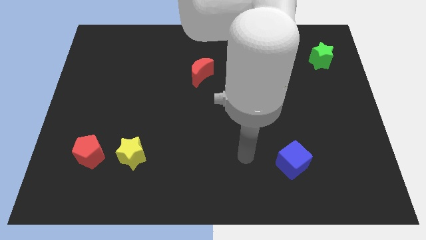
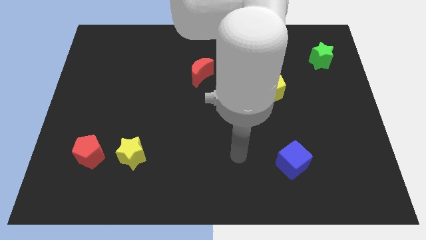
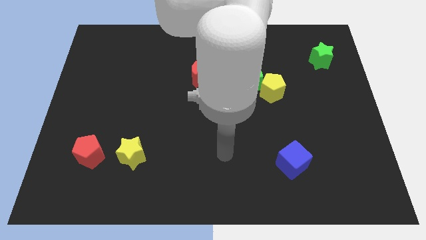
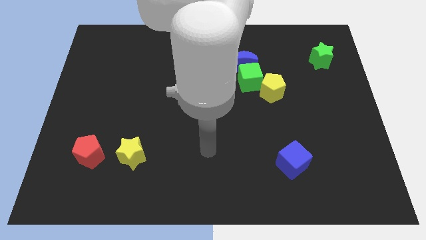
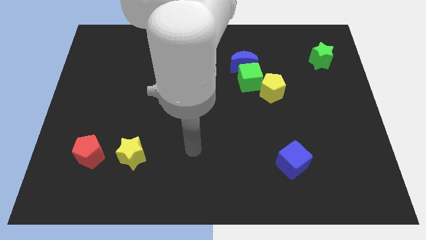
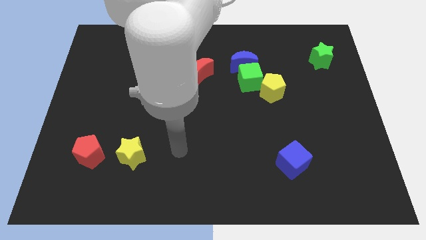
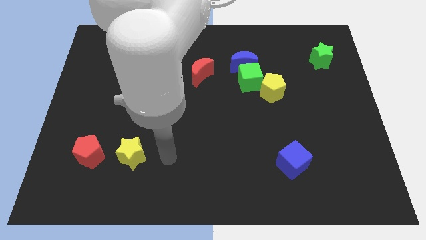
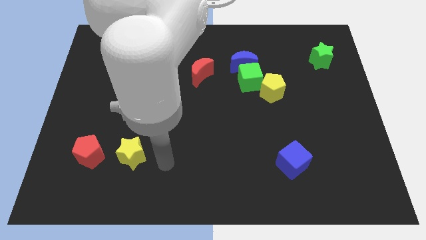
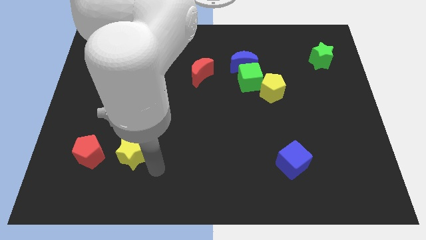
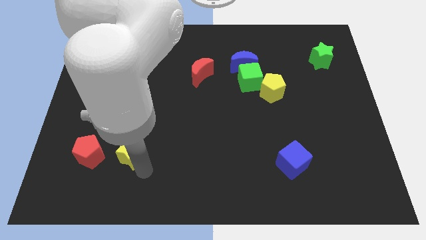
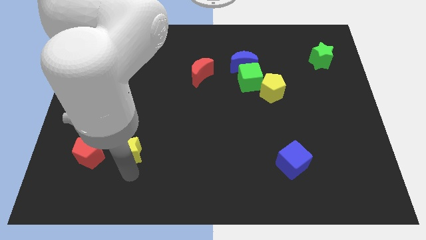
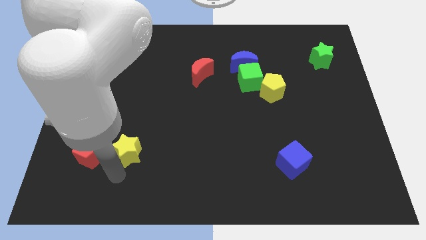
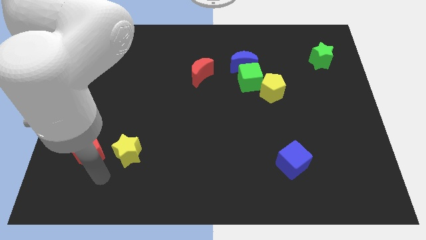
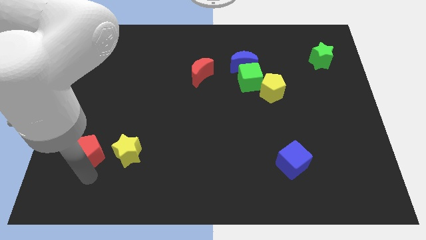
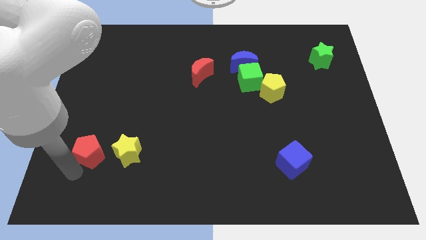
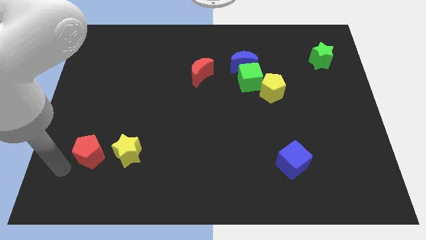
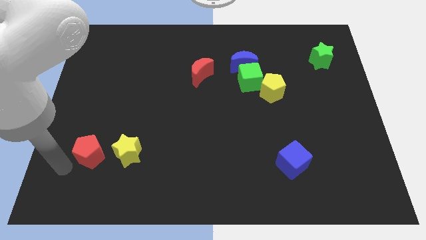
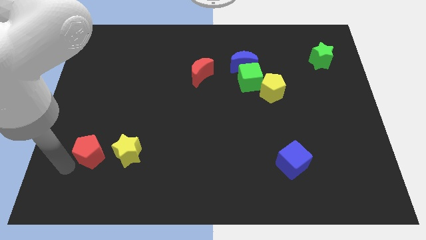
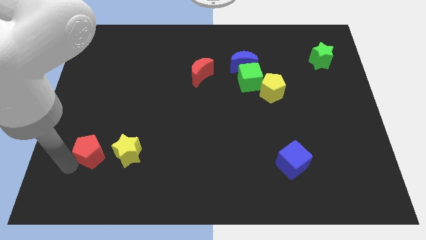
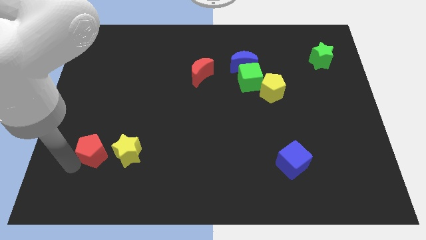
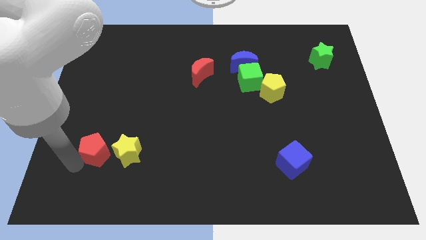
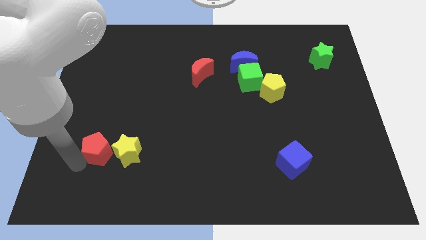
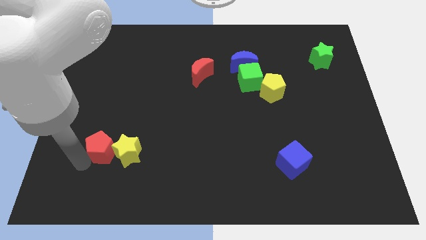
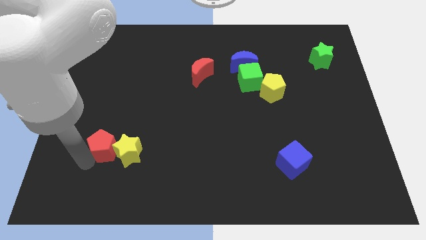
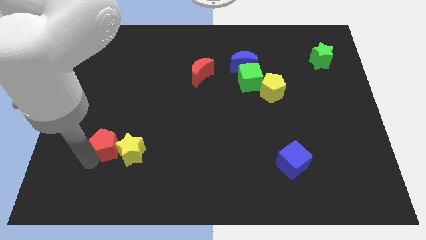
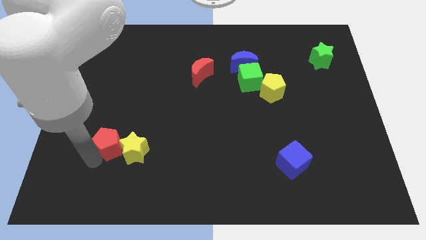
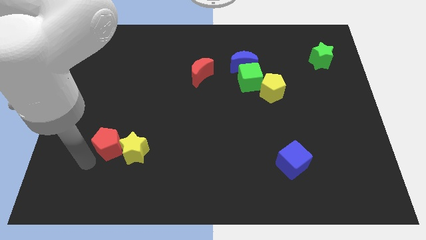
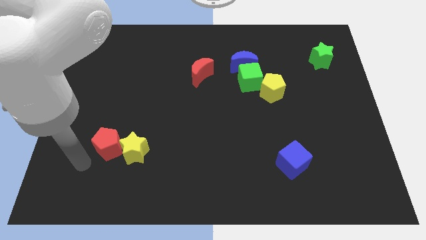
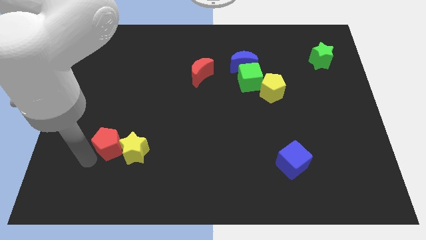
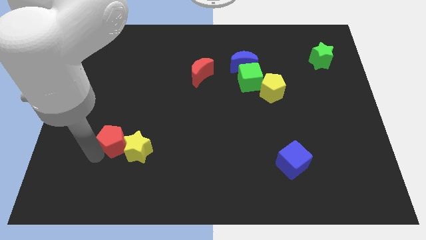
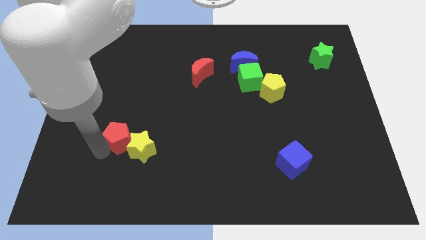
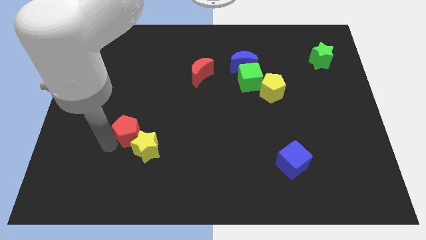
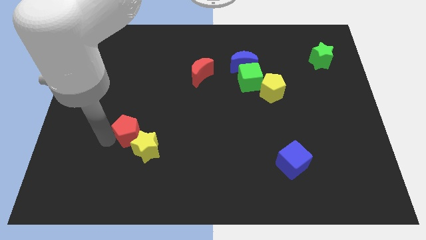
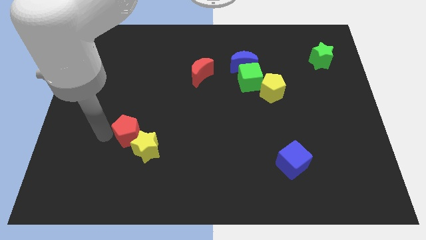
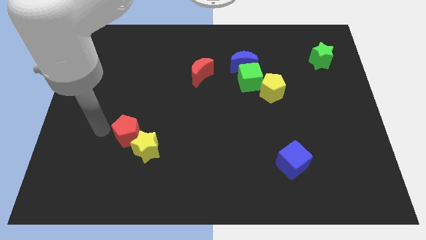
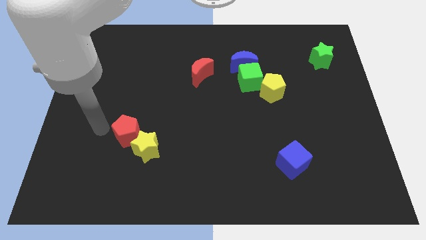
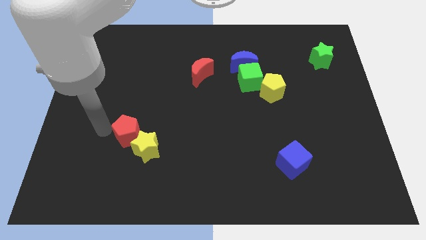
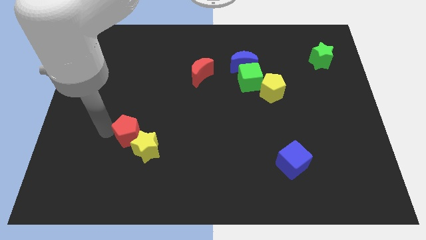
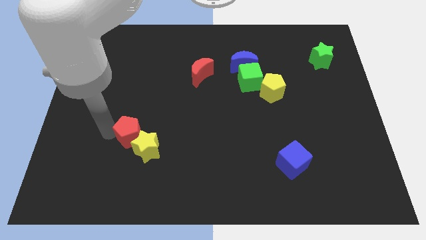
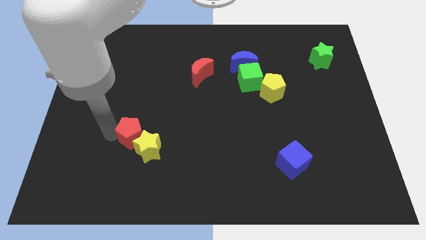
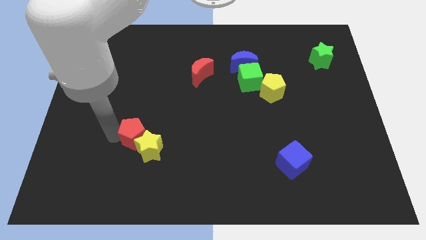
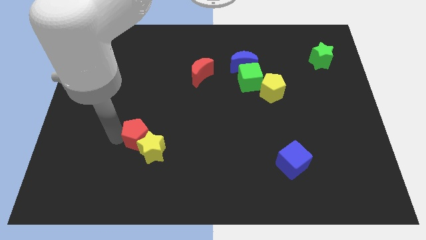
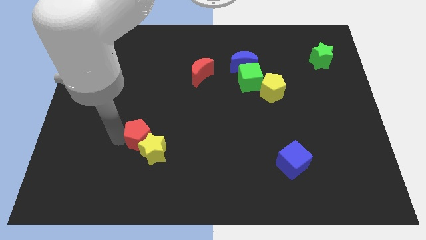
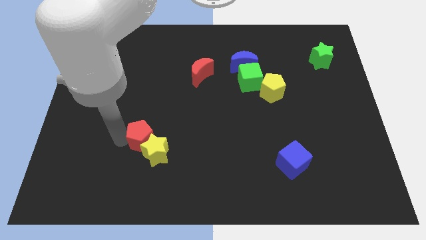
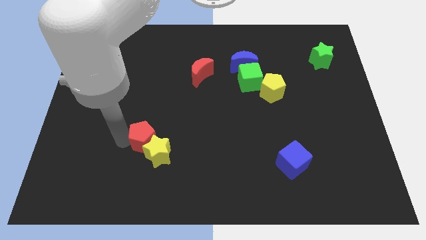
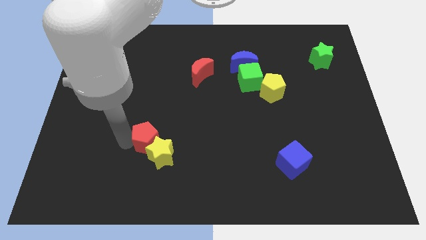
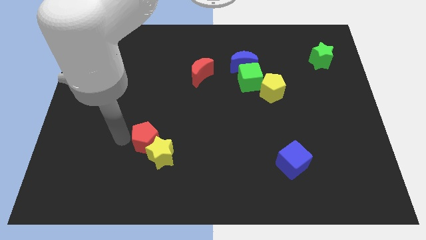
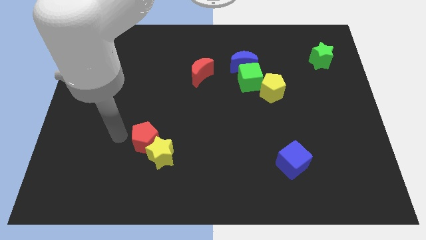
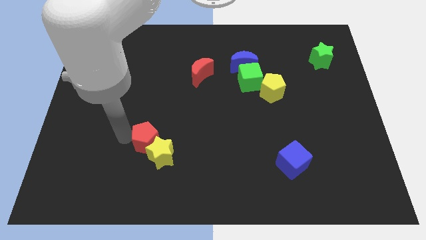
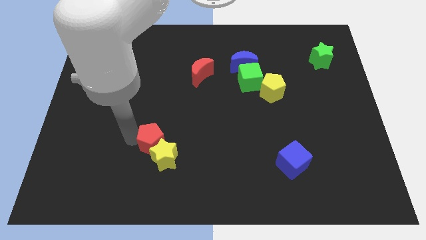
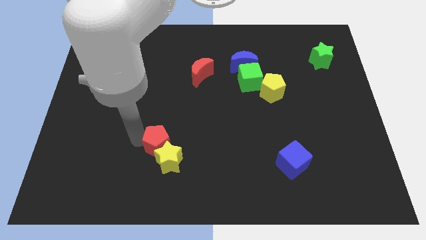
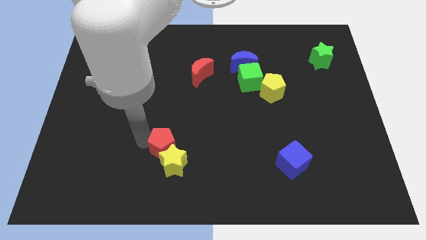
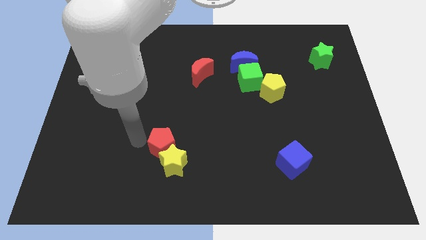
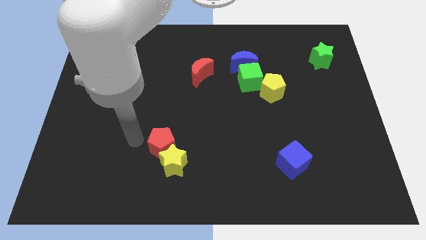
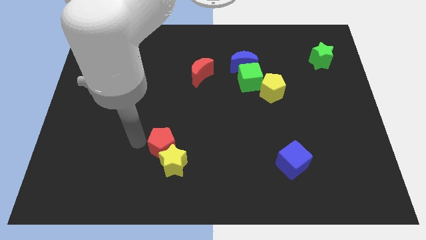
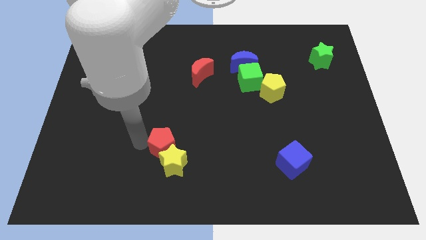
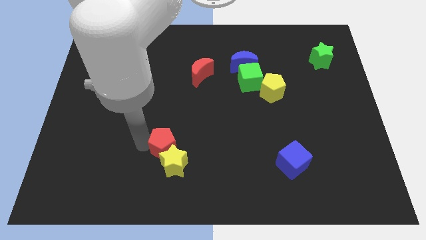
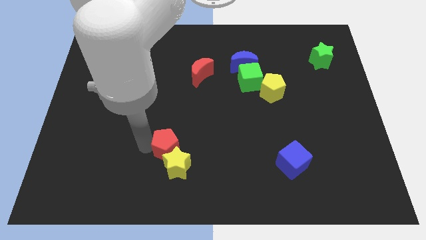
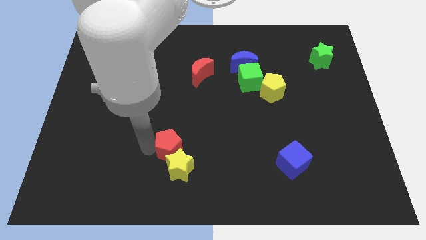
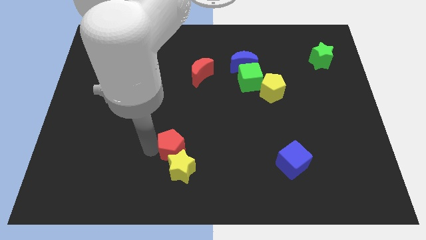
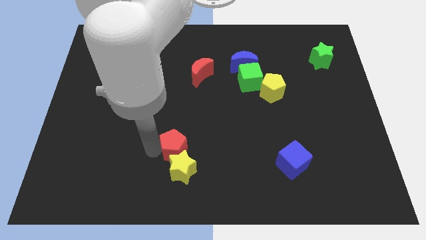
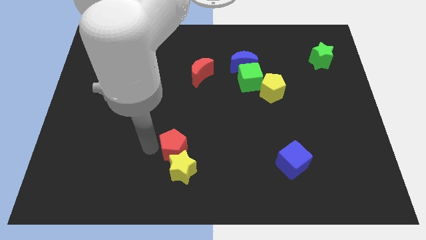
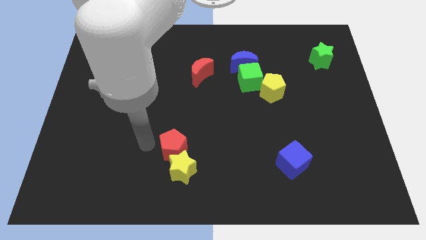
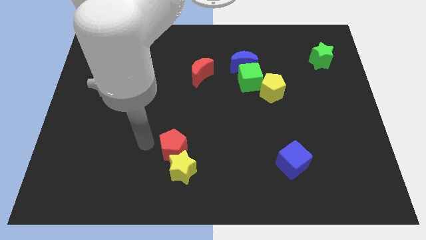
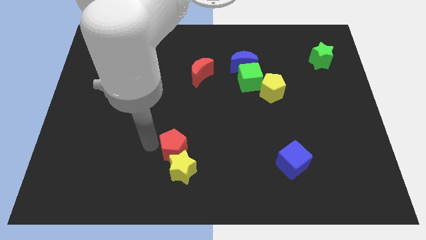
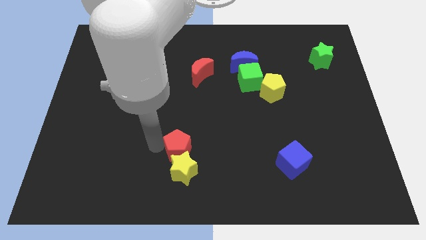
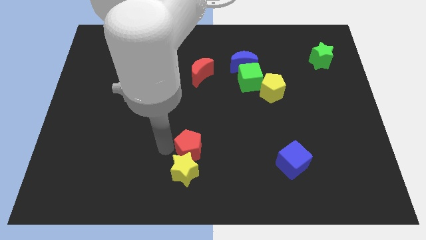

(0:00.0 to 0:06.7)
push the red pentagon right

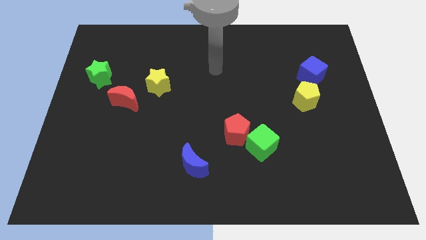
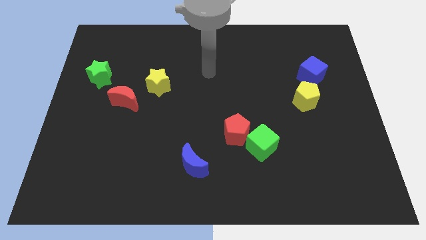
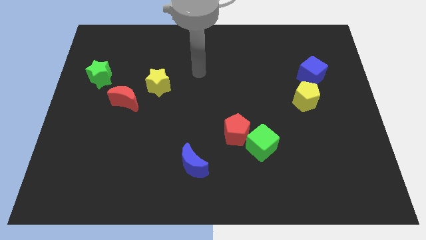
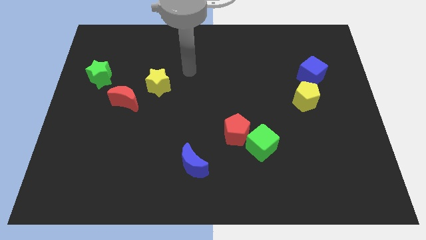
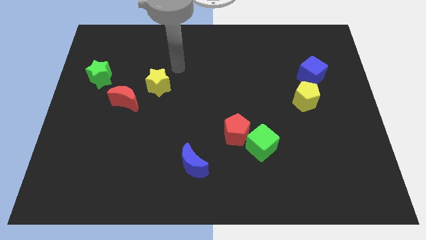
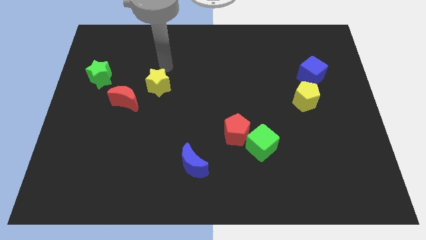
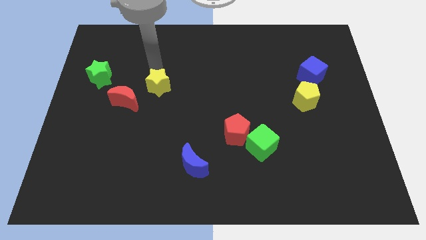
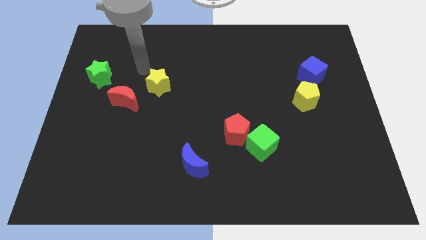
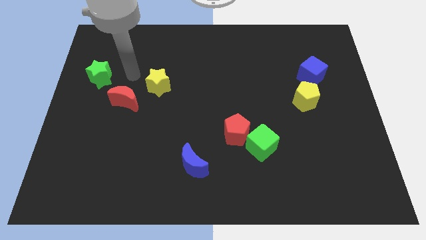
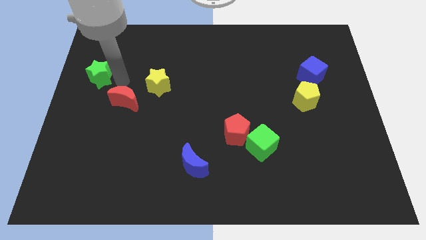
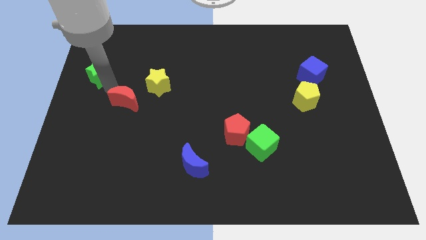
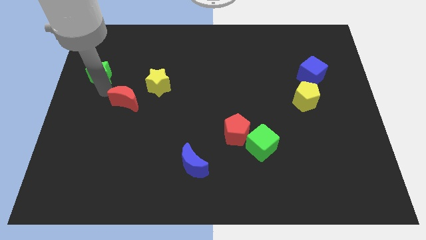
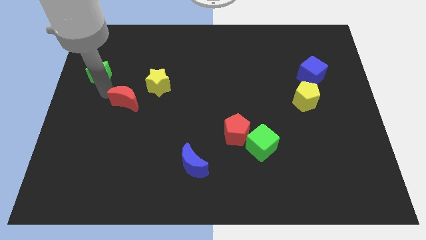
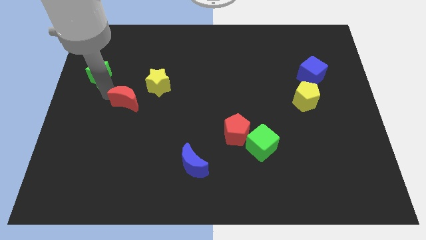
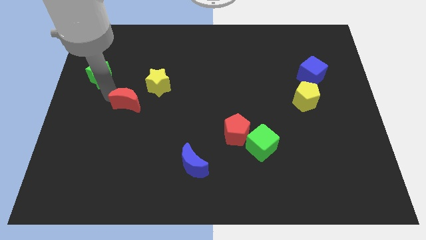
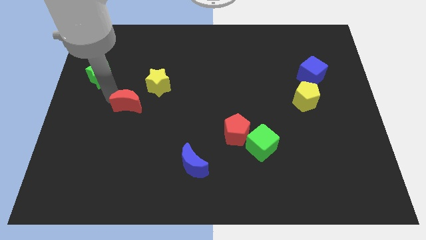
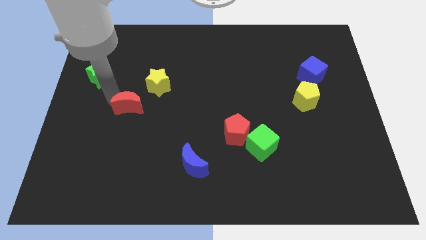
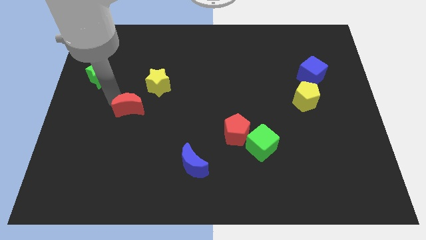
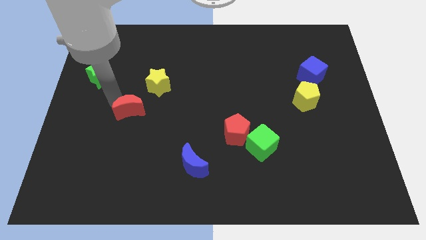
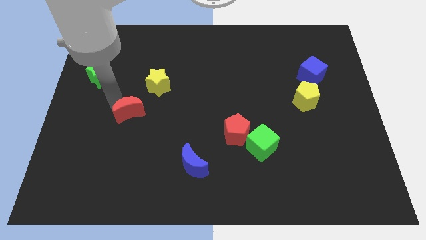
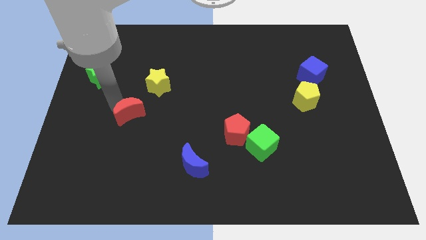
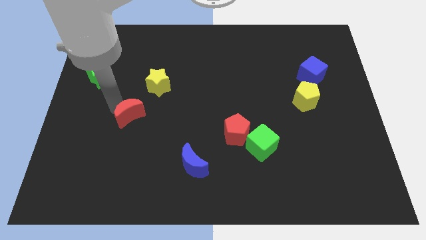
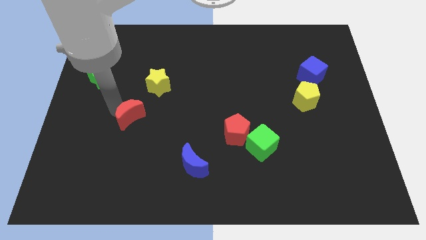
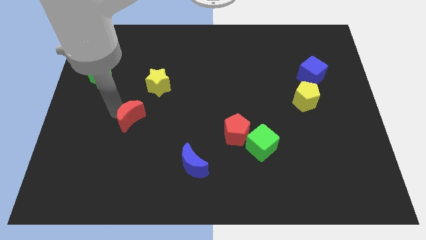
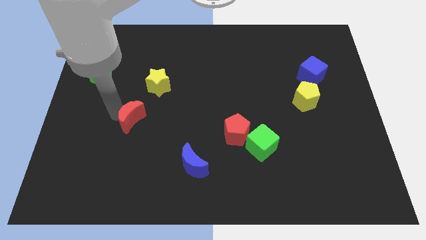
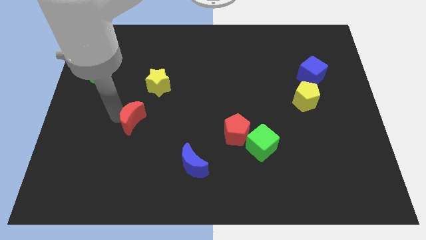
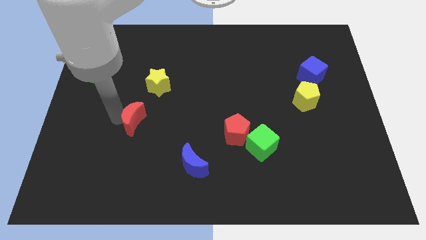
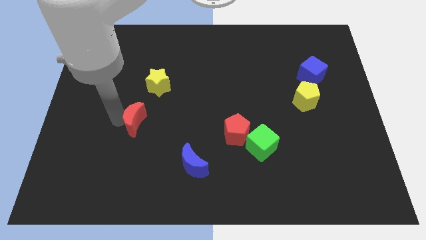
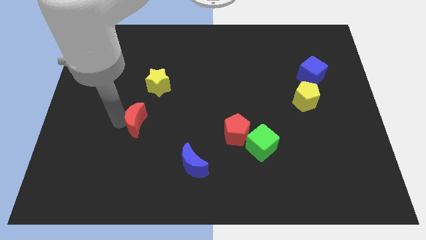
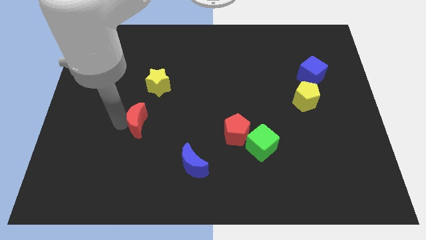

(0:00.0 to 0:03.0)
slightly push the red moon down and to the right diagonally
